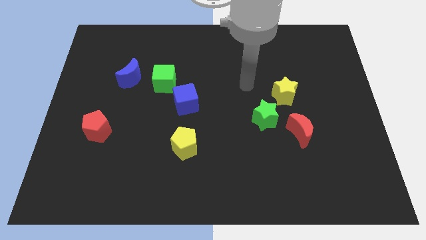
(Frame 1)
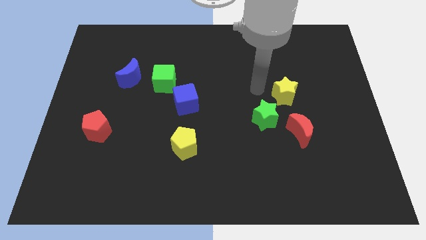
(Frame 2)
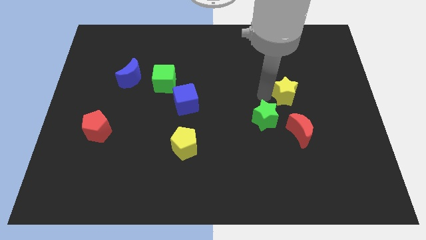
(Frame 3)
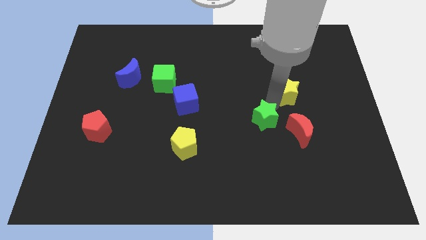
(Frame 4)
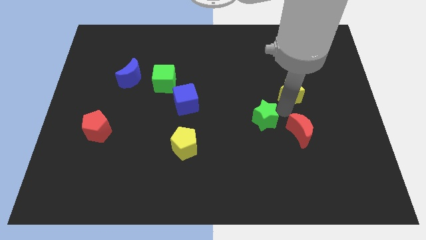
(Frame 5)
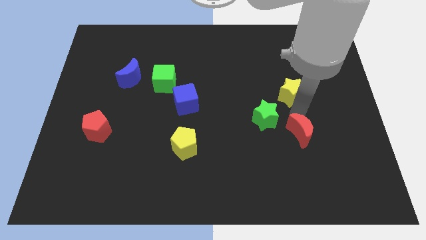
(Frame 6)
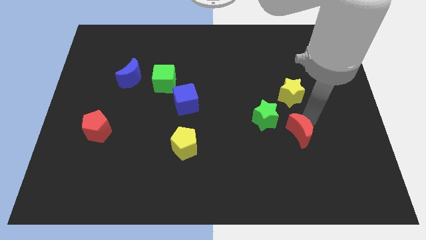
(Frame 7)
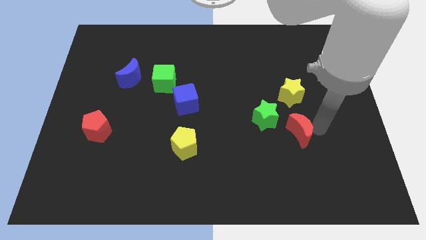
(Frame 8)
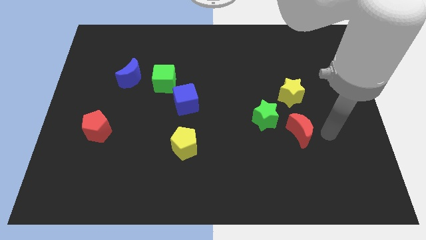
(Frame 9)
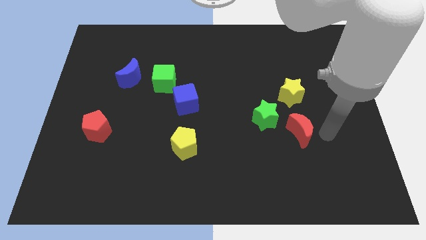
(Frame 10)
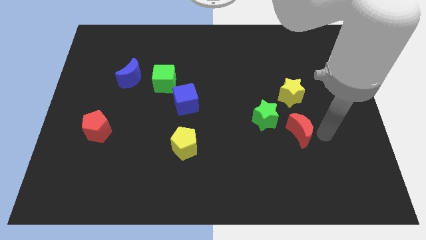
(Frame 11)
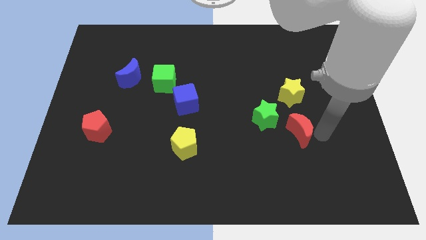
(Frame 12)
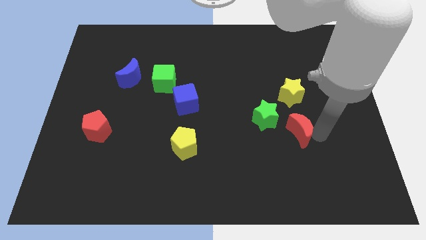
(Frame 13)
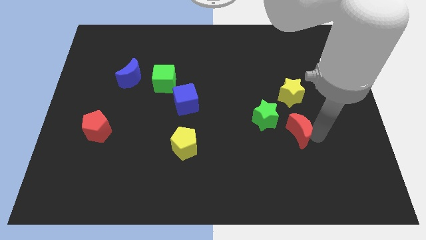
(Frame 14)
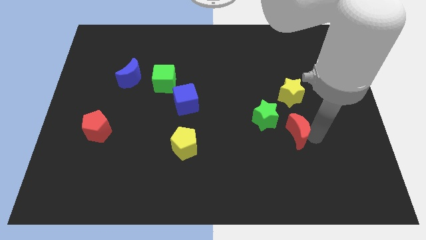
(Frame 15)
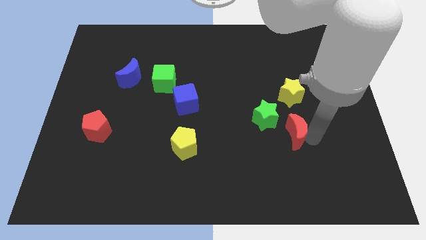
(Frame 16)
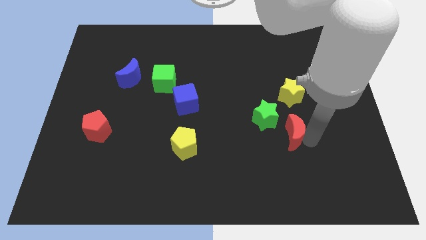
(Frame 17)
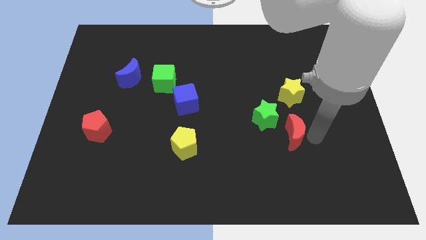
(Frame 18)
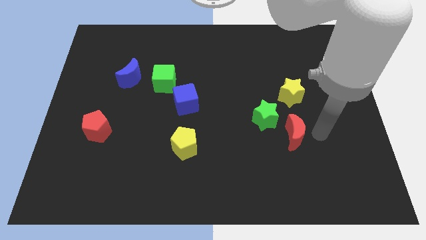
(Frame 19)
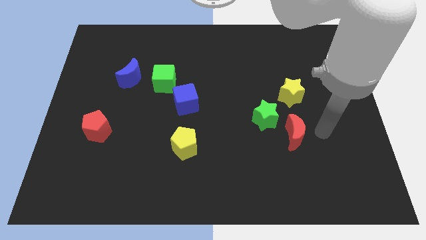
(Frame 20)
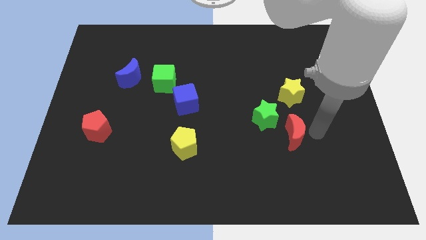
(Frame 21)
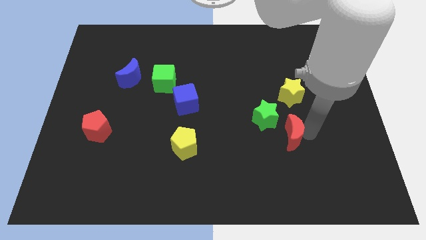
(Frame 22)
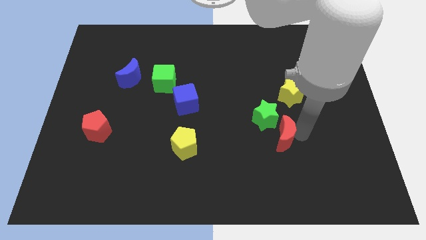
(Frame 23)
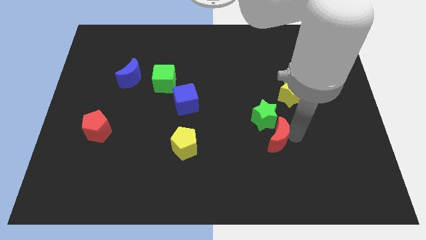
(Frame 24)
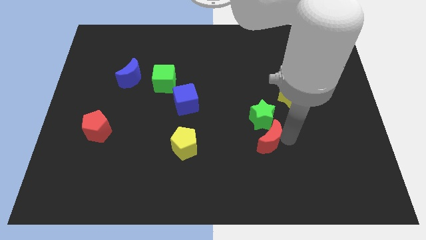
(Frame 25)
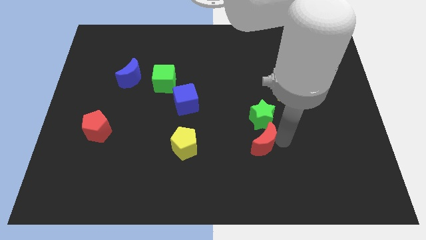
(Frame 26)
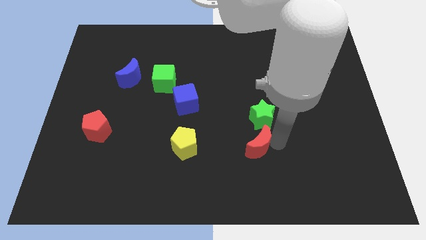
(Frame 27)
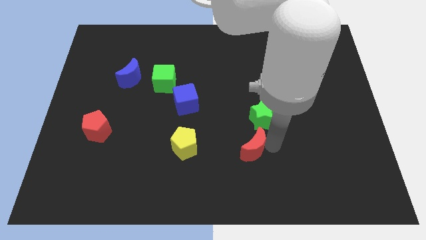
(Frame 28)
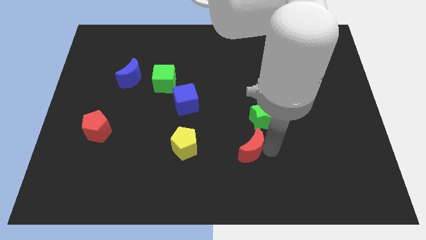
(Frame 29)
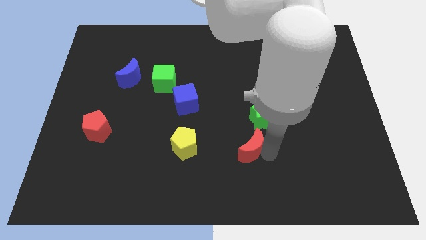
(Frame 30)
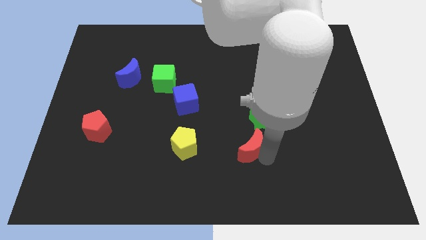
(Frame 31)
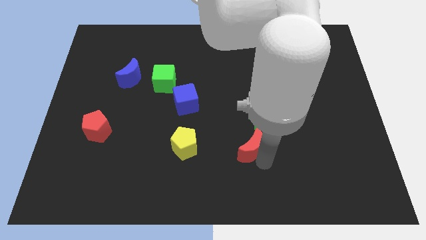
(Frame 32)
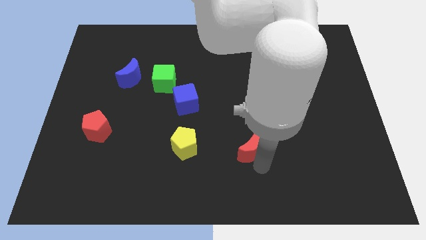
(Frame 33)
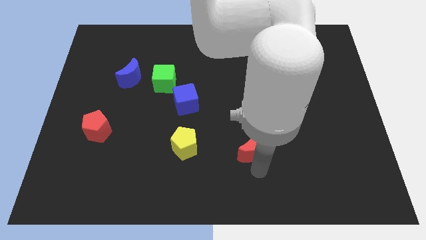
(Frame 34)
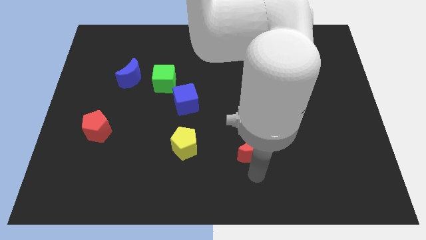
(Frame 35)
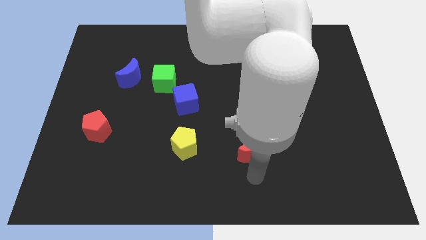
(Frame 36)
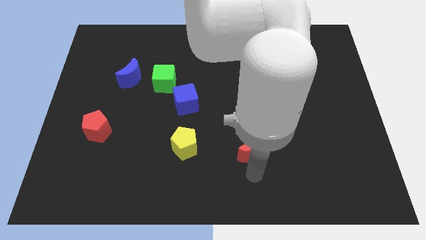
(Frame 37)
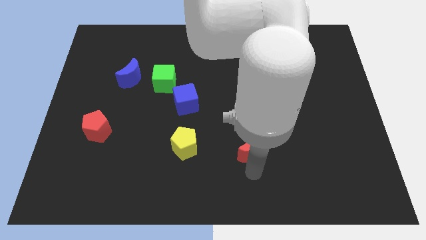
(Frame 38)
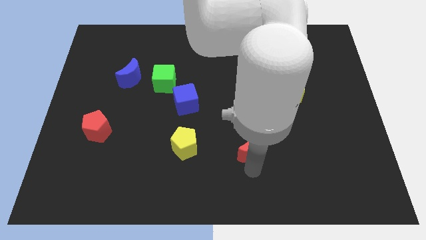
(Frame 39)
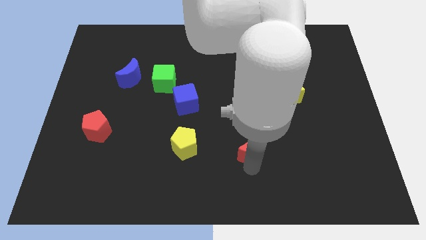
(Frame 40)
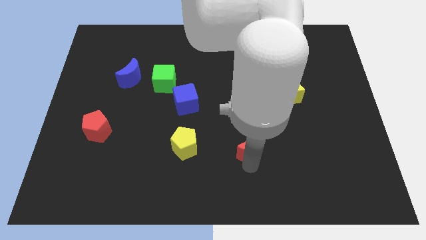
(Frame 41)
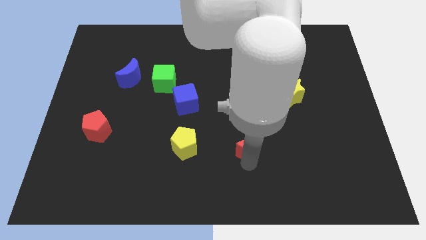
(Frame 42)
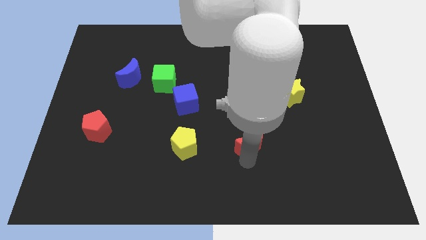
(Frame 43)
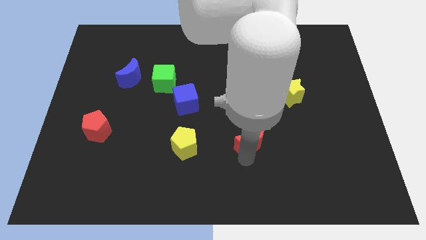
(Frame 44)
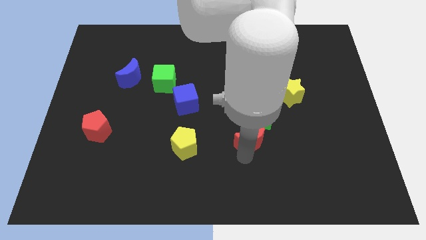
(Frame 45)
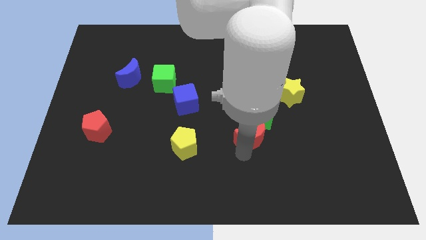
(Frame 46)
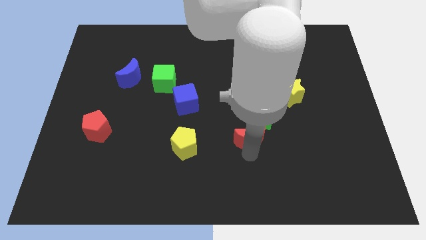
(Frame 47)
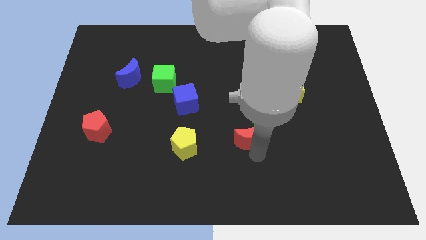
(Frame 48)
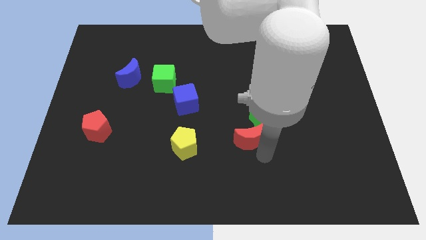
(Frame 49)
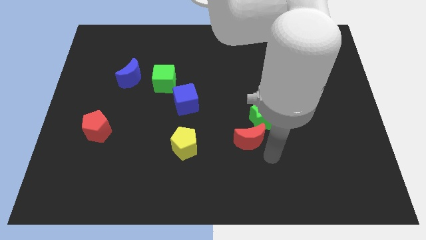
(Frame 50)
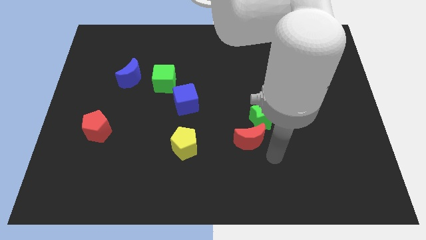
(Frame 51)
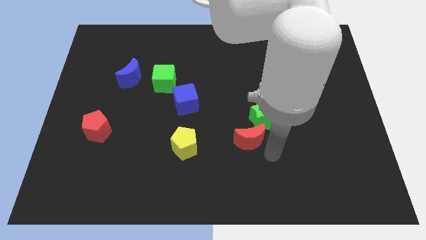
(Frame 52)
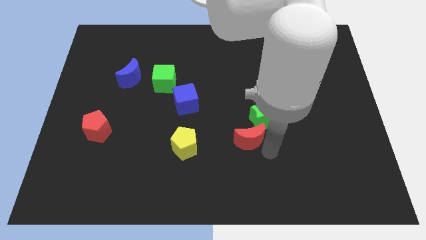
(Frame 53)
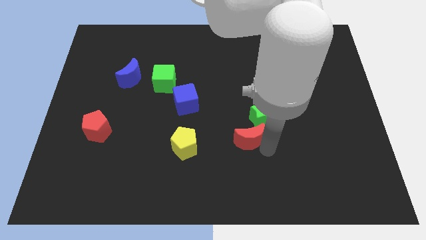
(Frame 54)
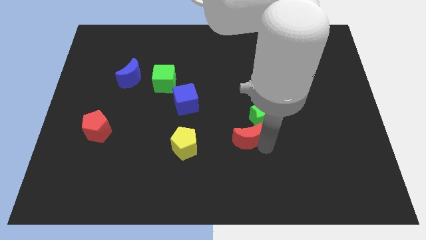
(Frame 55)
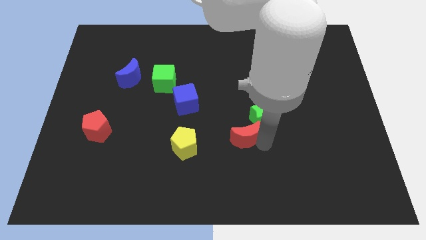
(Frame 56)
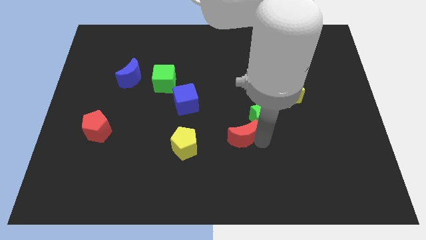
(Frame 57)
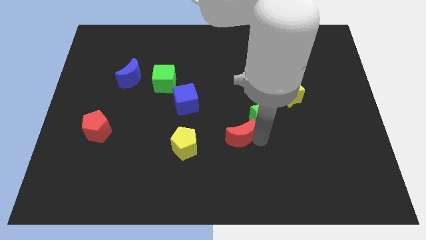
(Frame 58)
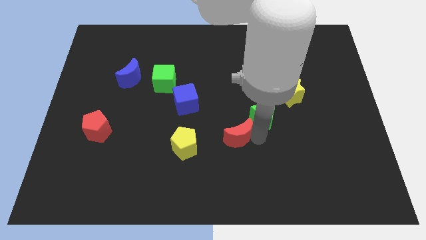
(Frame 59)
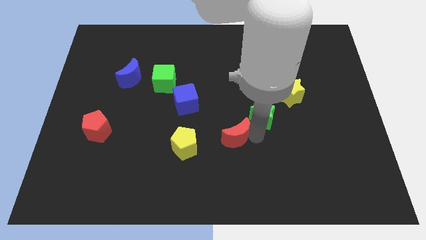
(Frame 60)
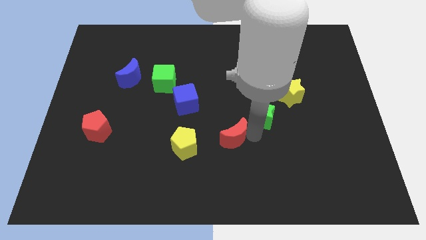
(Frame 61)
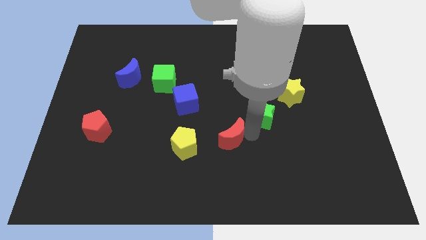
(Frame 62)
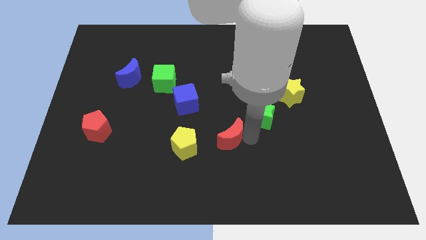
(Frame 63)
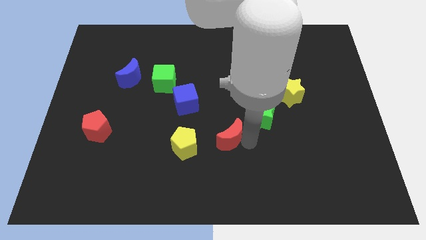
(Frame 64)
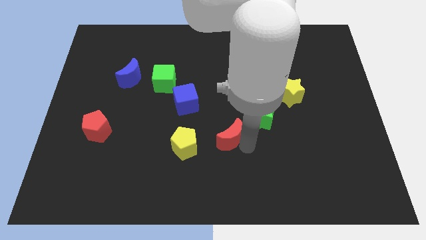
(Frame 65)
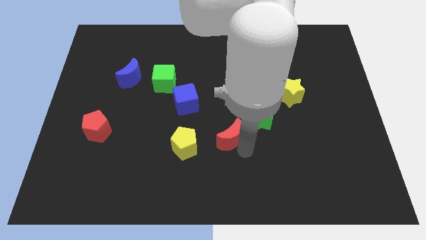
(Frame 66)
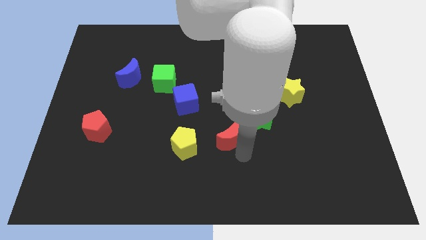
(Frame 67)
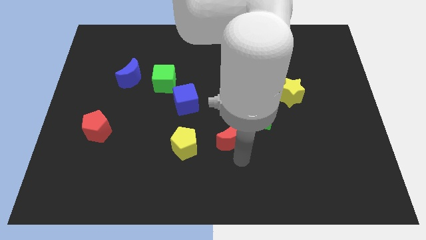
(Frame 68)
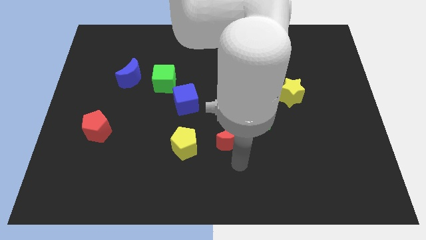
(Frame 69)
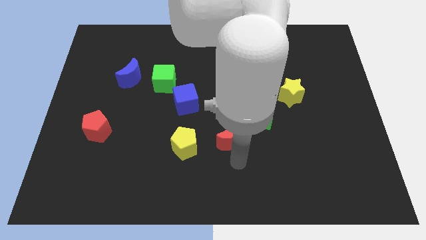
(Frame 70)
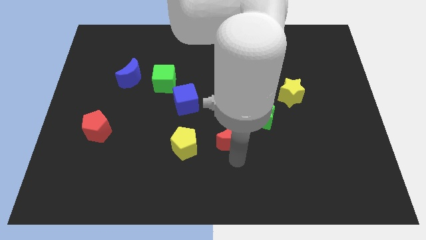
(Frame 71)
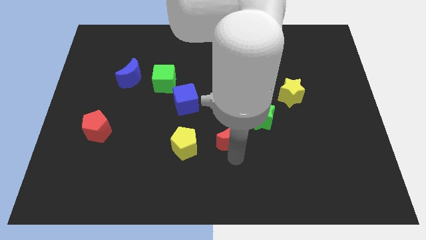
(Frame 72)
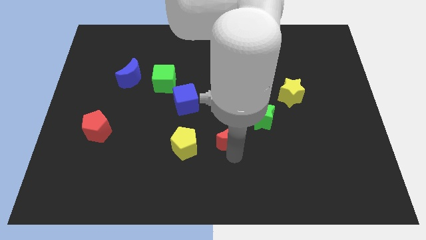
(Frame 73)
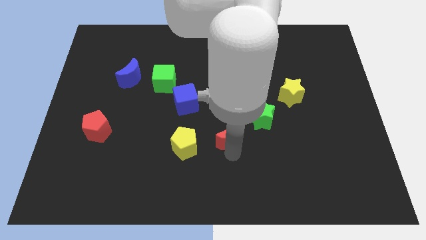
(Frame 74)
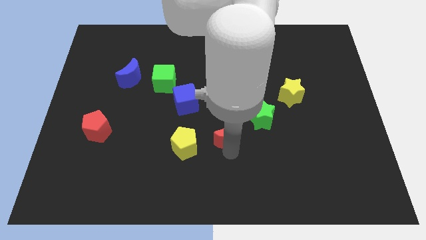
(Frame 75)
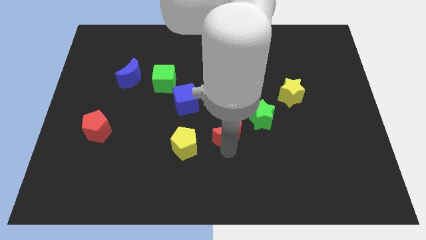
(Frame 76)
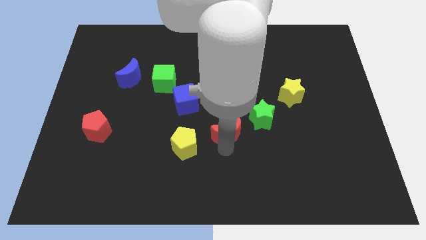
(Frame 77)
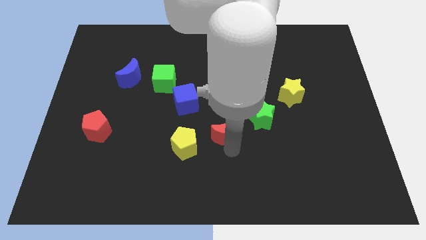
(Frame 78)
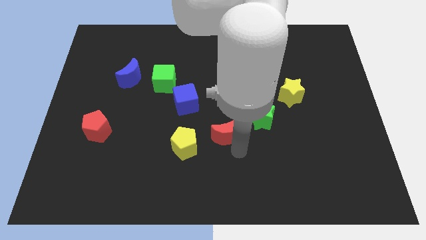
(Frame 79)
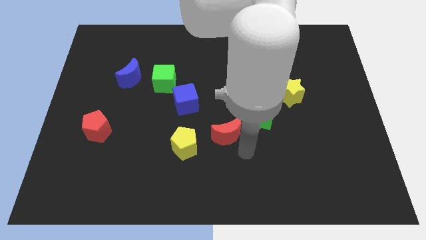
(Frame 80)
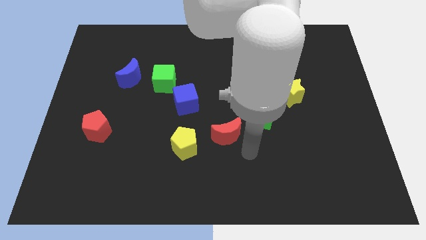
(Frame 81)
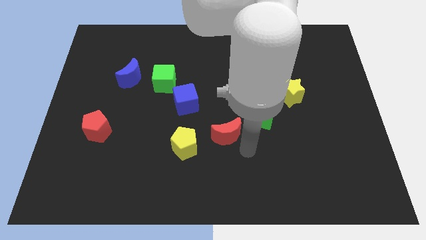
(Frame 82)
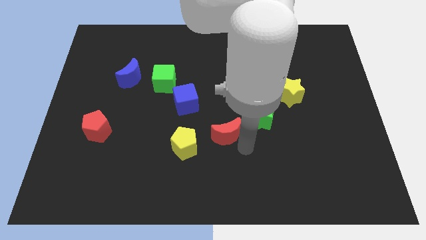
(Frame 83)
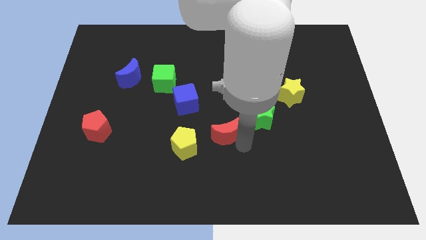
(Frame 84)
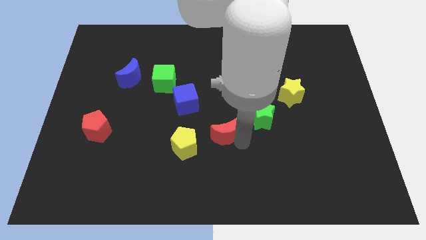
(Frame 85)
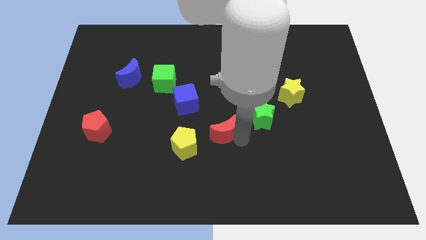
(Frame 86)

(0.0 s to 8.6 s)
slide the red moon diagonally down and to the right of the blue cube
